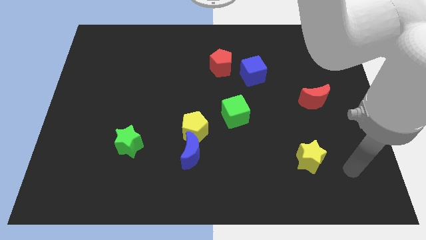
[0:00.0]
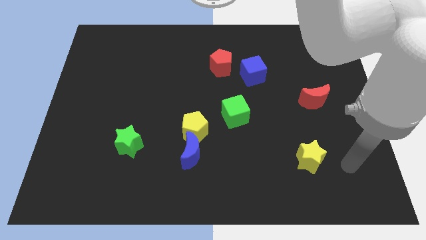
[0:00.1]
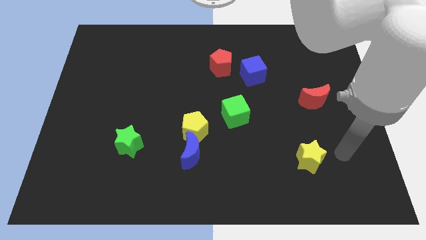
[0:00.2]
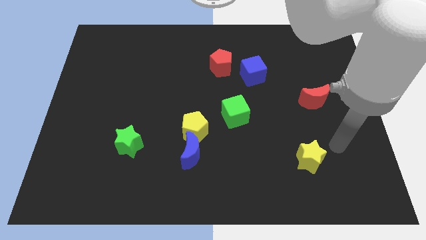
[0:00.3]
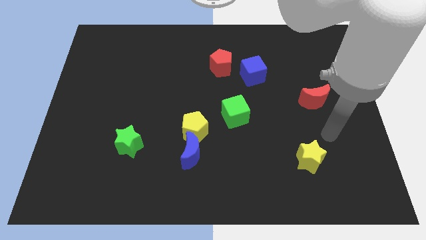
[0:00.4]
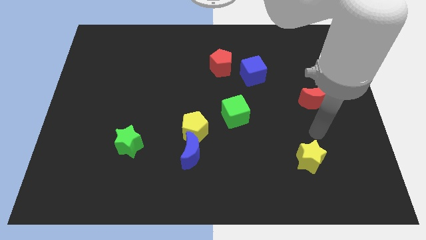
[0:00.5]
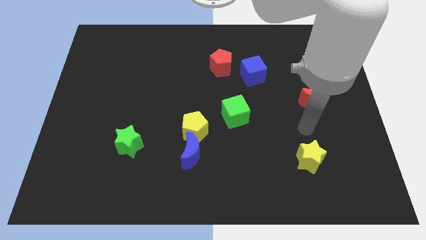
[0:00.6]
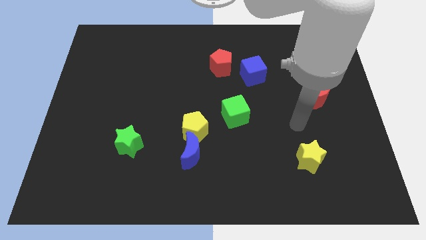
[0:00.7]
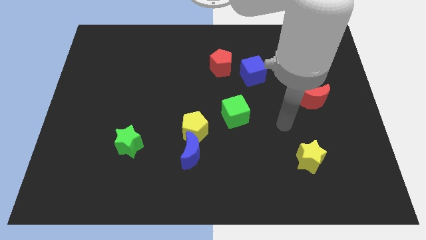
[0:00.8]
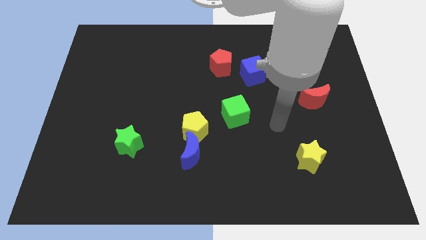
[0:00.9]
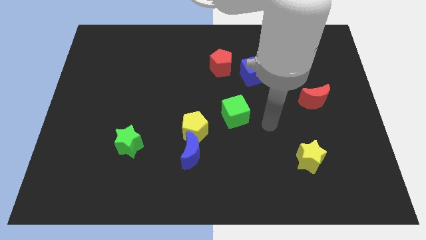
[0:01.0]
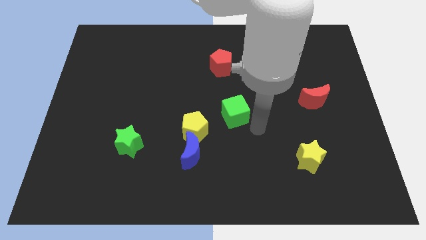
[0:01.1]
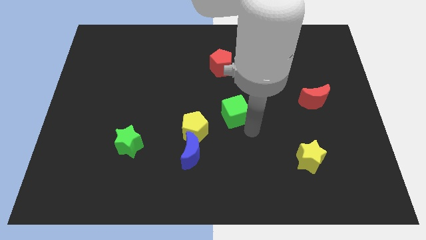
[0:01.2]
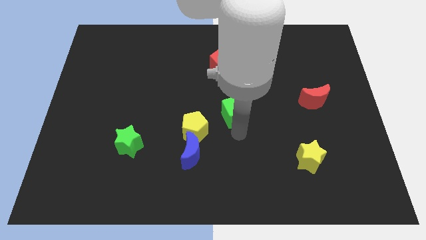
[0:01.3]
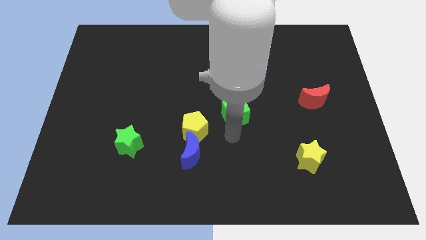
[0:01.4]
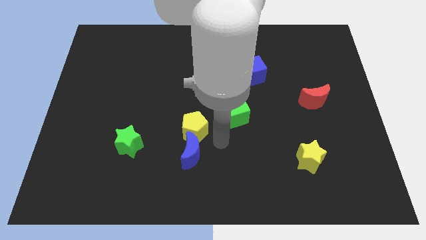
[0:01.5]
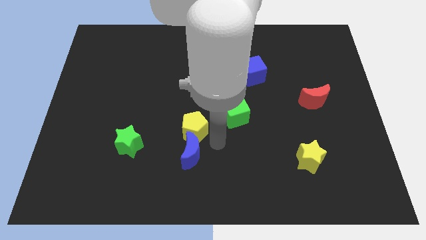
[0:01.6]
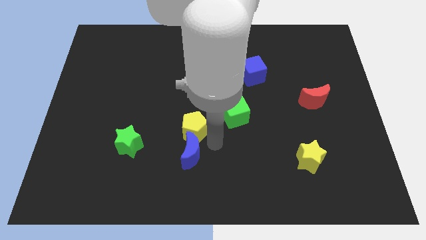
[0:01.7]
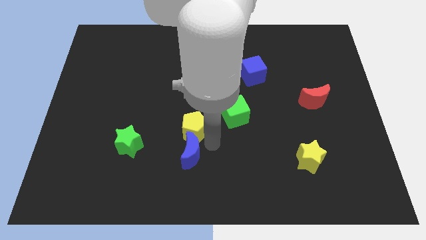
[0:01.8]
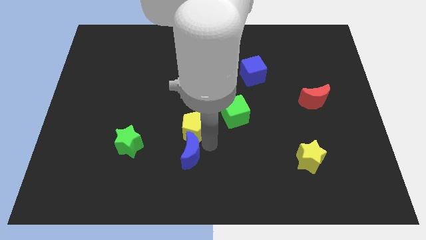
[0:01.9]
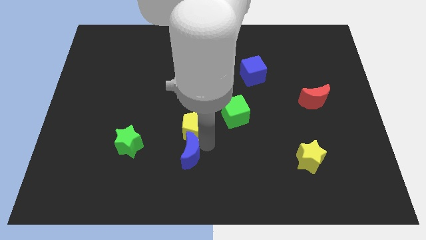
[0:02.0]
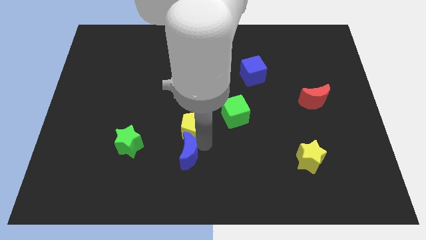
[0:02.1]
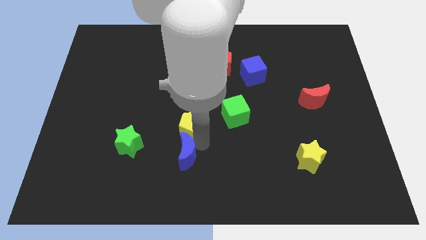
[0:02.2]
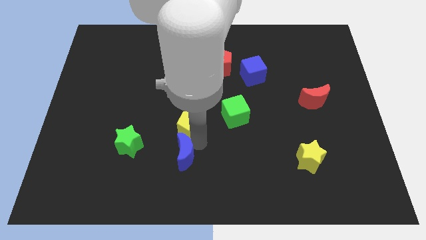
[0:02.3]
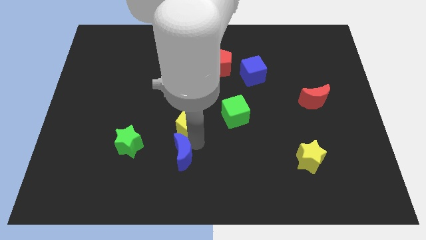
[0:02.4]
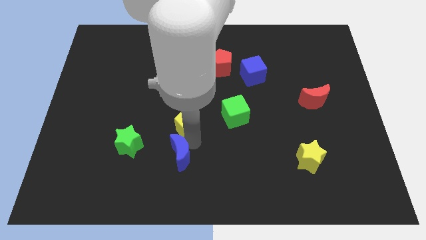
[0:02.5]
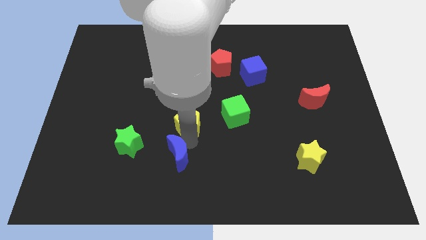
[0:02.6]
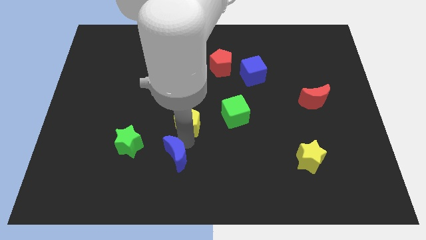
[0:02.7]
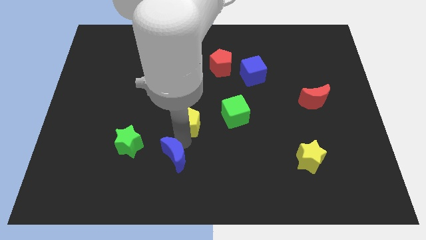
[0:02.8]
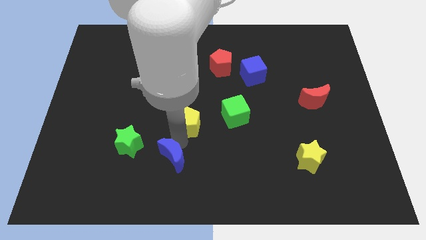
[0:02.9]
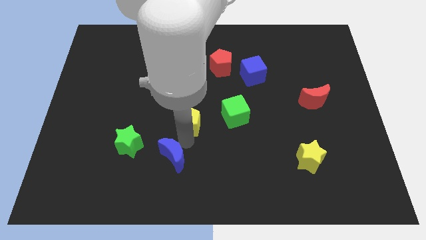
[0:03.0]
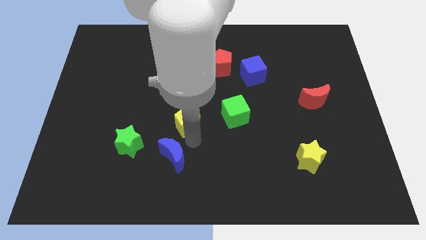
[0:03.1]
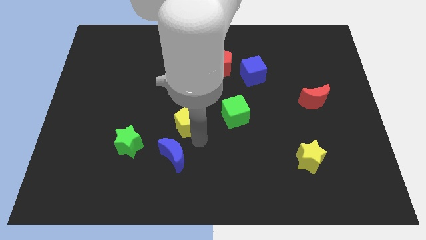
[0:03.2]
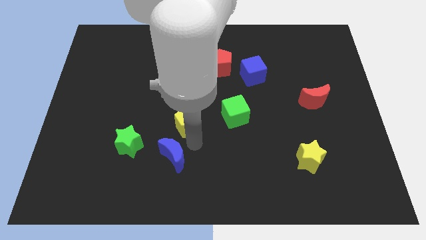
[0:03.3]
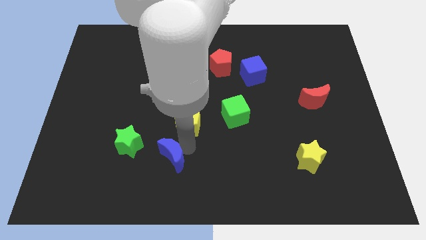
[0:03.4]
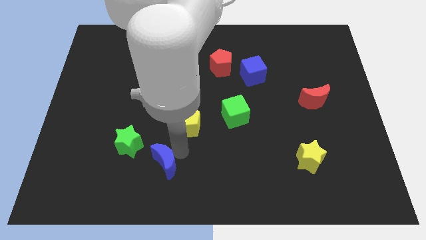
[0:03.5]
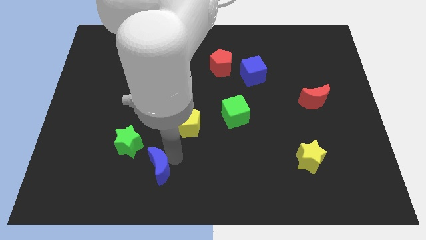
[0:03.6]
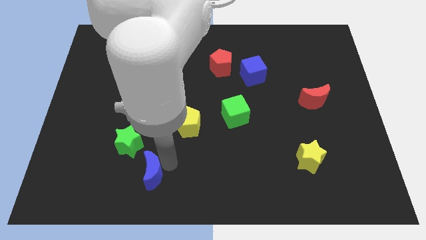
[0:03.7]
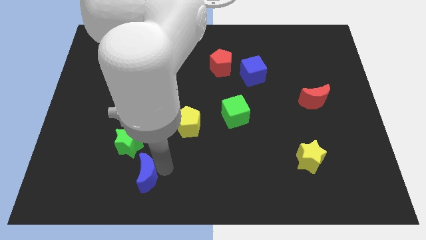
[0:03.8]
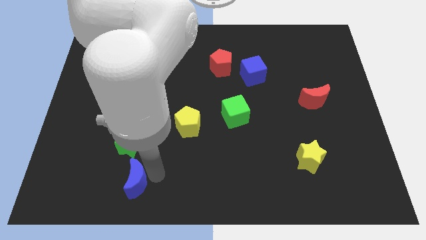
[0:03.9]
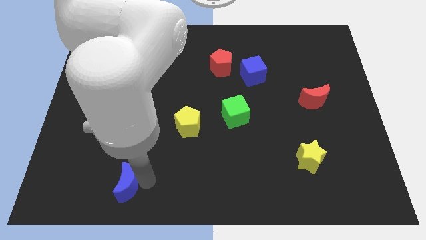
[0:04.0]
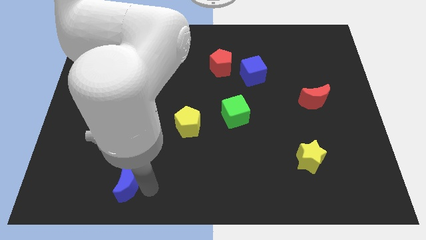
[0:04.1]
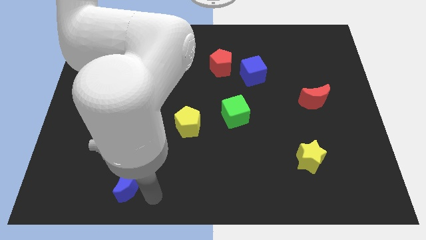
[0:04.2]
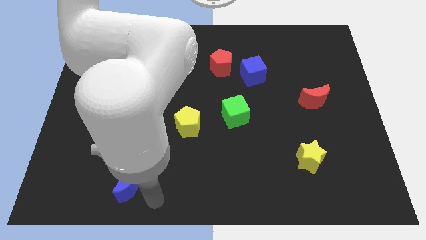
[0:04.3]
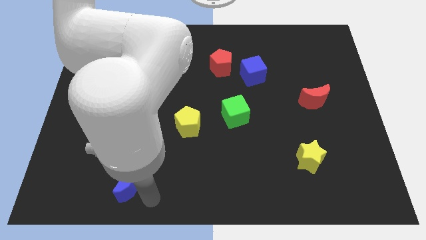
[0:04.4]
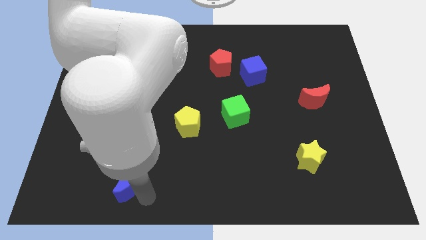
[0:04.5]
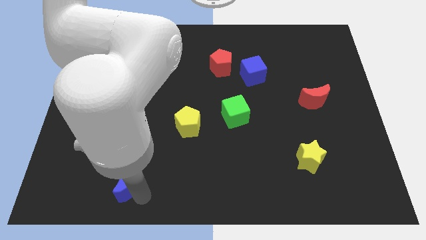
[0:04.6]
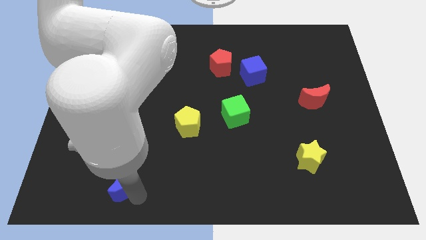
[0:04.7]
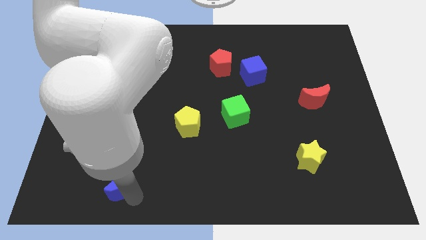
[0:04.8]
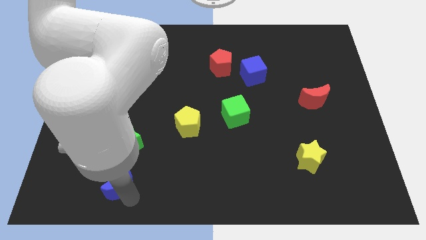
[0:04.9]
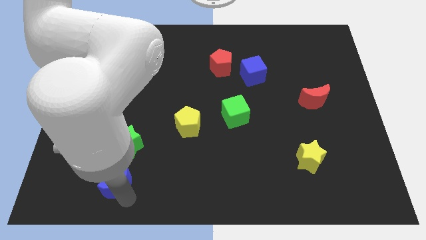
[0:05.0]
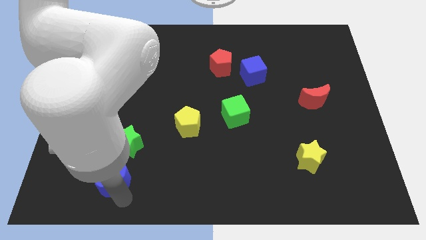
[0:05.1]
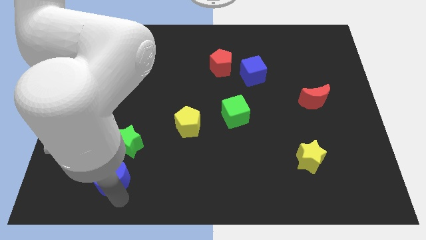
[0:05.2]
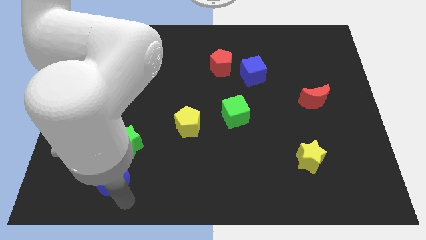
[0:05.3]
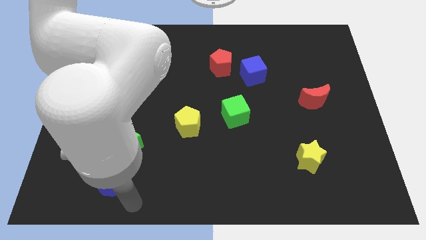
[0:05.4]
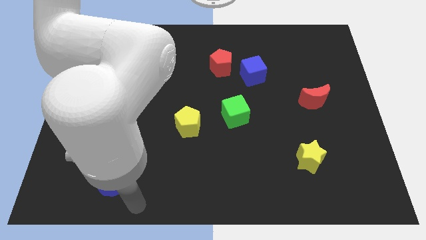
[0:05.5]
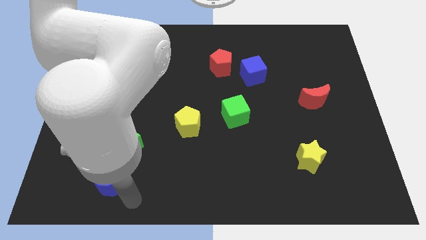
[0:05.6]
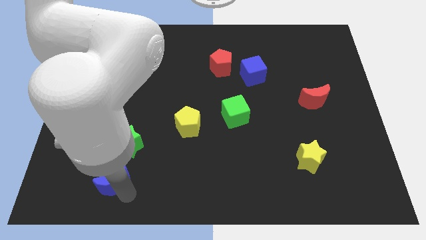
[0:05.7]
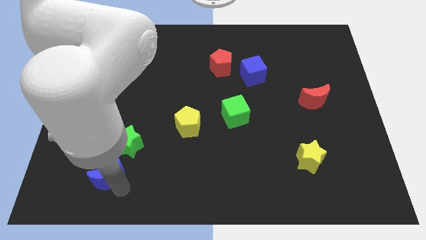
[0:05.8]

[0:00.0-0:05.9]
push the blue moon to the bottom left of the green star

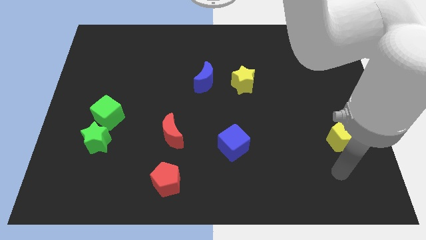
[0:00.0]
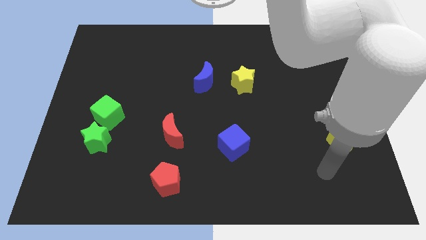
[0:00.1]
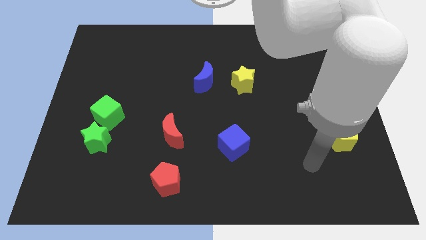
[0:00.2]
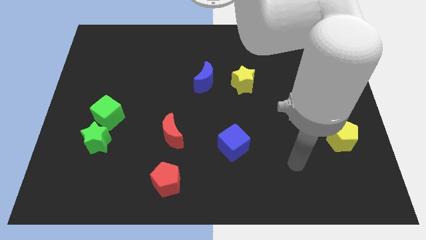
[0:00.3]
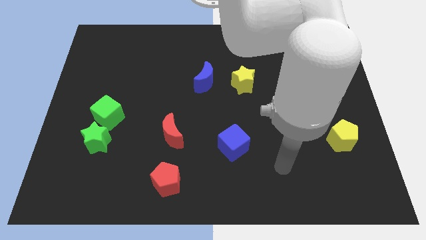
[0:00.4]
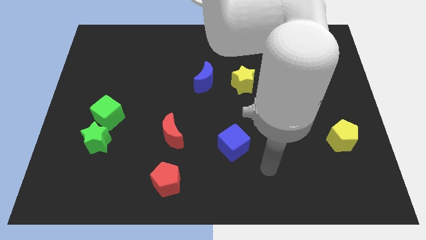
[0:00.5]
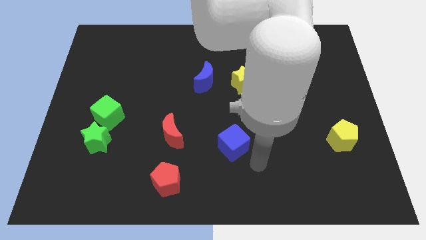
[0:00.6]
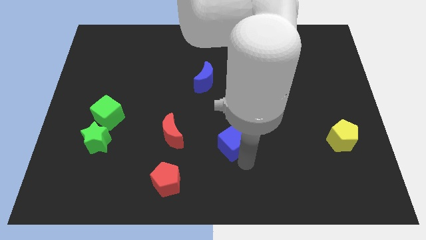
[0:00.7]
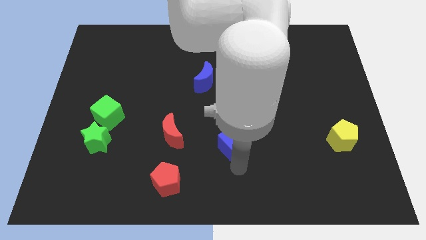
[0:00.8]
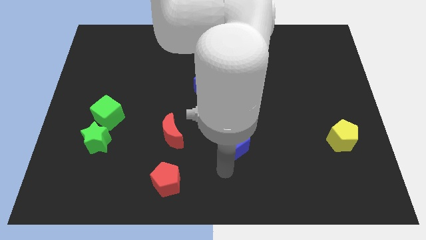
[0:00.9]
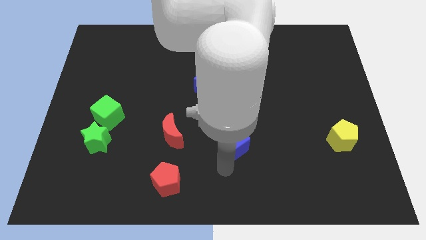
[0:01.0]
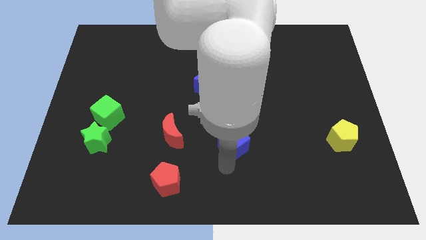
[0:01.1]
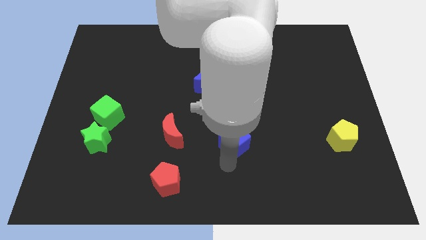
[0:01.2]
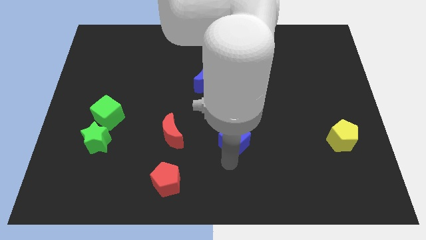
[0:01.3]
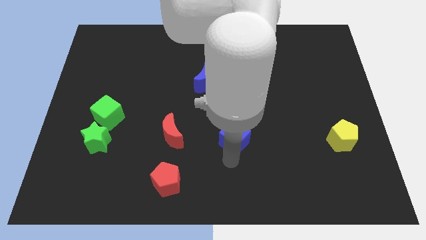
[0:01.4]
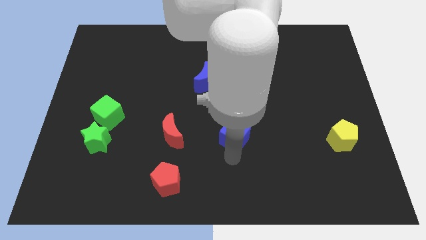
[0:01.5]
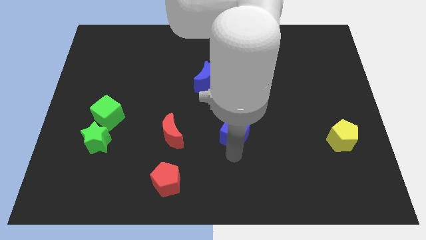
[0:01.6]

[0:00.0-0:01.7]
move the blue cube to the bottom of the yellow star
